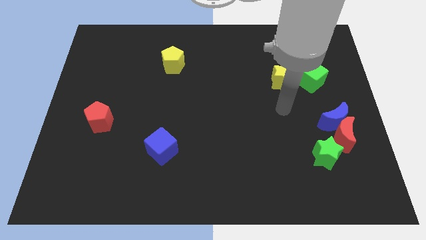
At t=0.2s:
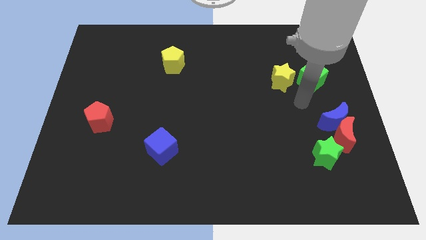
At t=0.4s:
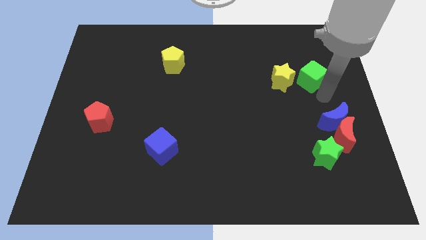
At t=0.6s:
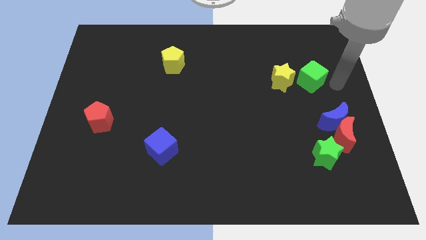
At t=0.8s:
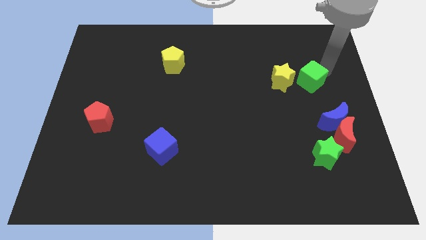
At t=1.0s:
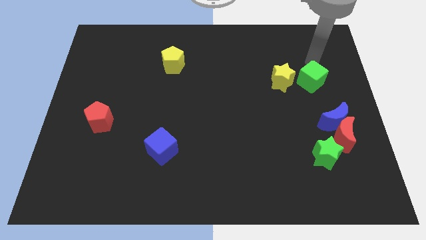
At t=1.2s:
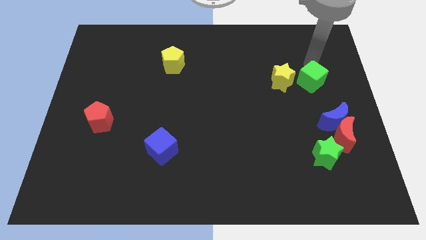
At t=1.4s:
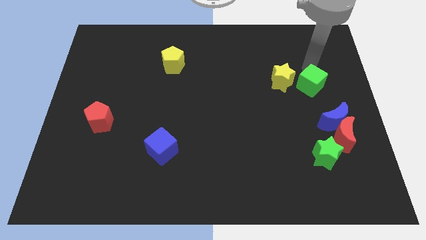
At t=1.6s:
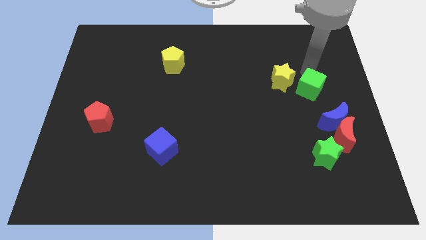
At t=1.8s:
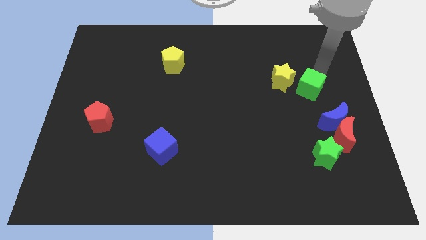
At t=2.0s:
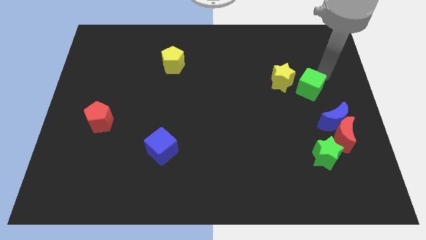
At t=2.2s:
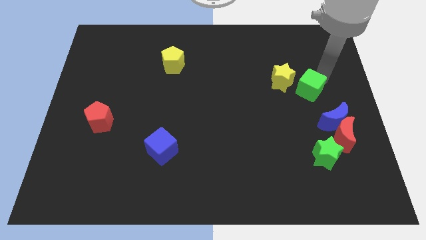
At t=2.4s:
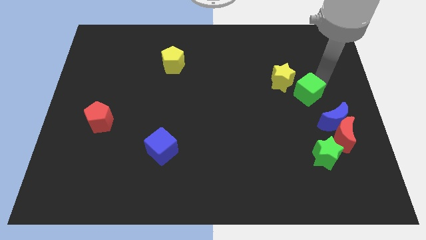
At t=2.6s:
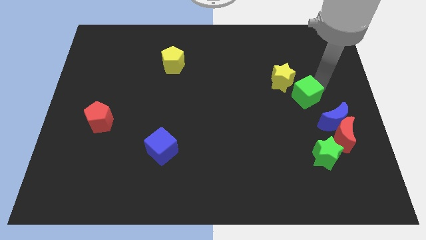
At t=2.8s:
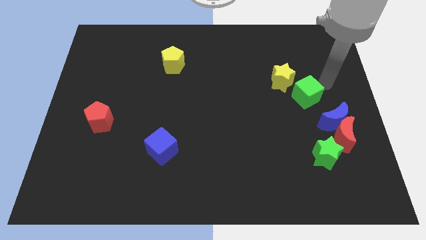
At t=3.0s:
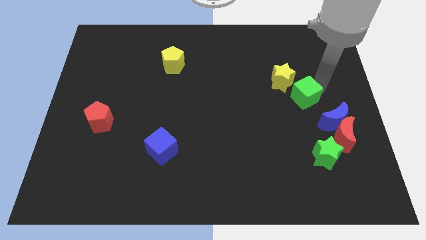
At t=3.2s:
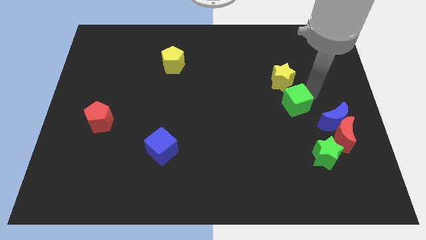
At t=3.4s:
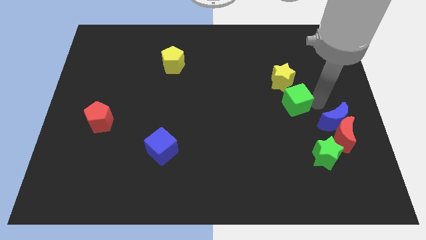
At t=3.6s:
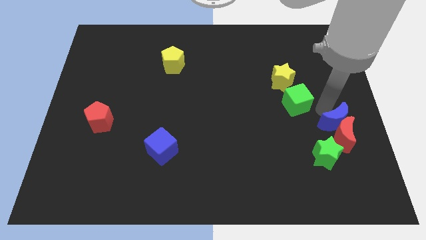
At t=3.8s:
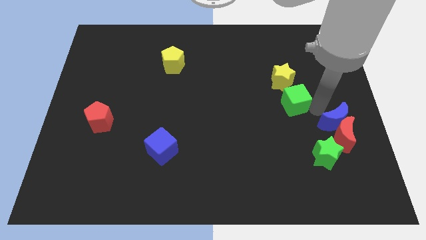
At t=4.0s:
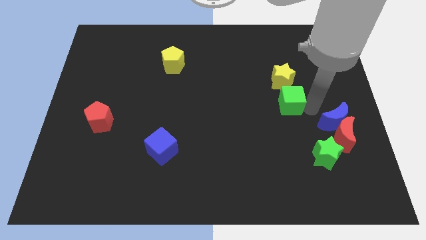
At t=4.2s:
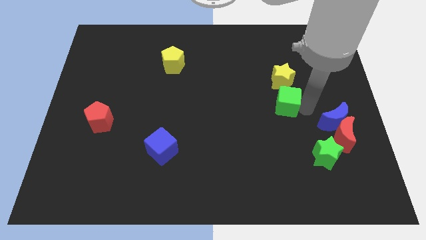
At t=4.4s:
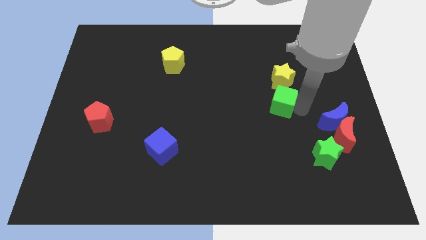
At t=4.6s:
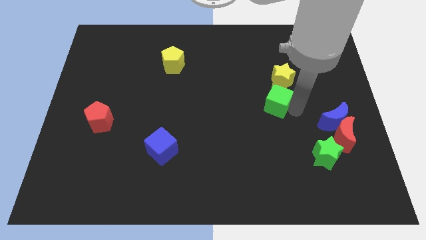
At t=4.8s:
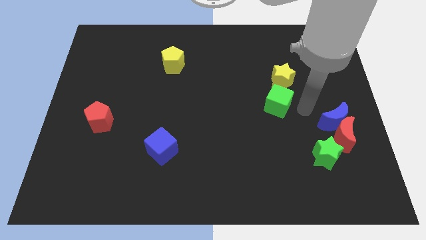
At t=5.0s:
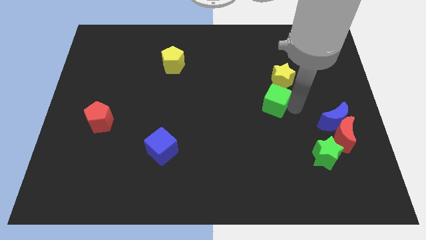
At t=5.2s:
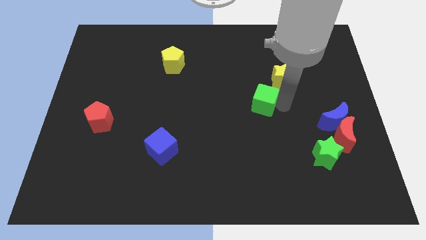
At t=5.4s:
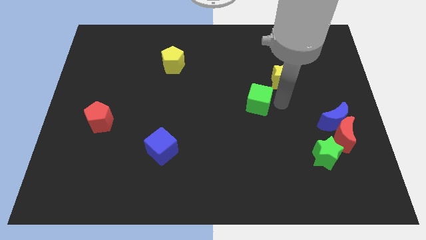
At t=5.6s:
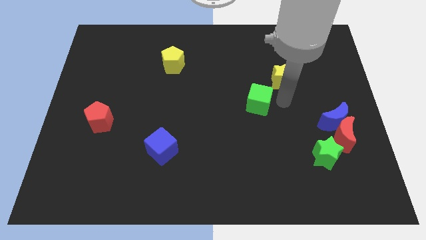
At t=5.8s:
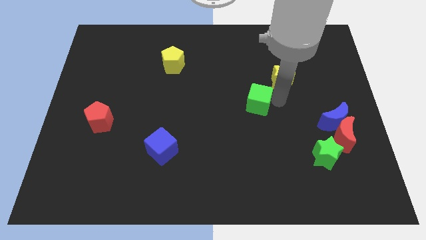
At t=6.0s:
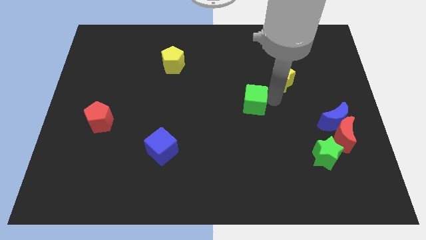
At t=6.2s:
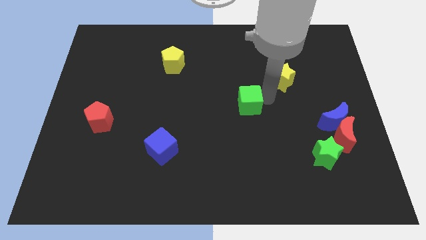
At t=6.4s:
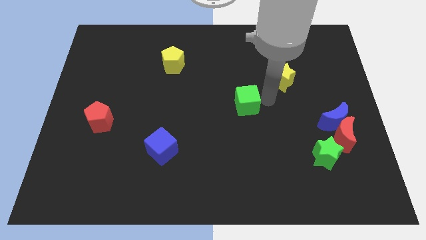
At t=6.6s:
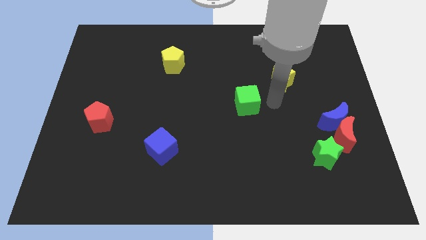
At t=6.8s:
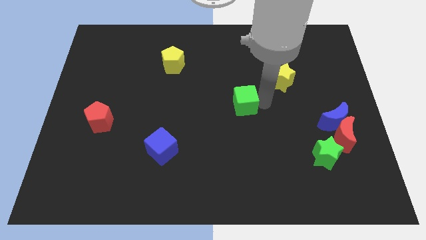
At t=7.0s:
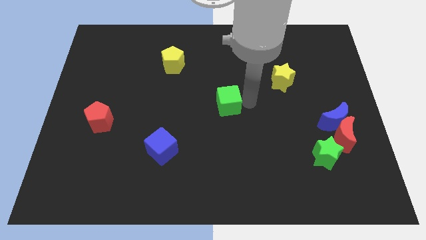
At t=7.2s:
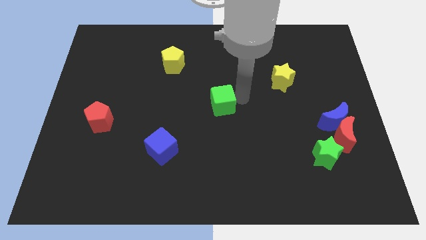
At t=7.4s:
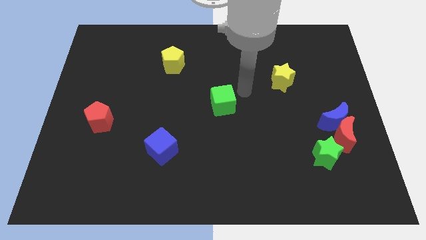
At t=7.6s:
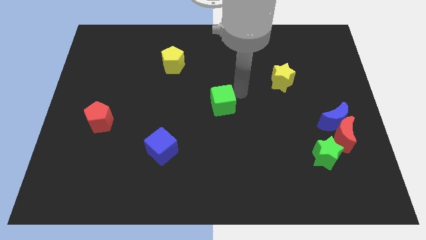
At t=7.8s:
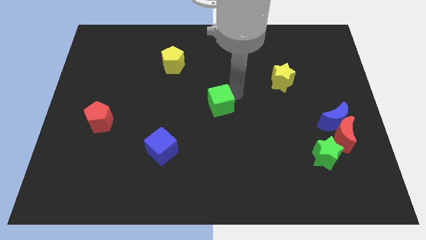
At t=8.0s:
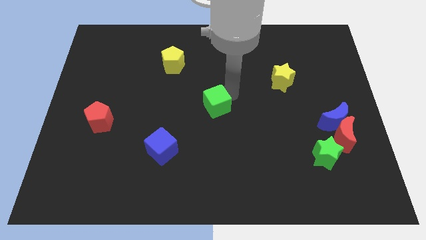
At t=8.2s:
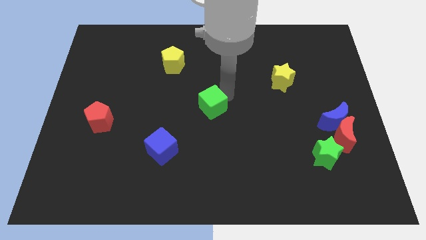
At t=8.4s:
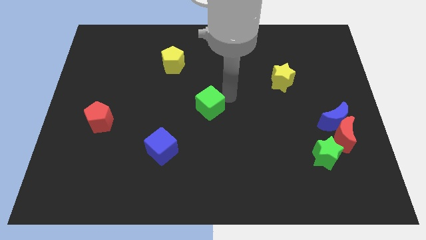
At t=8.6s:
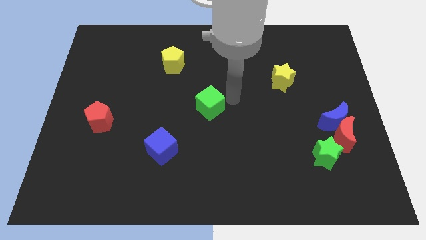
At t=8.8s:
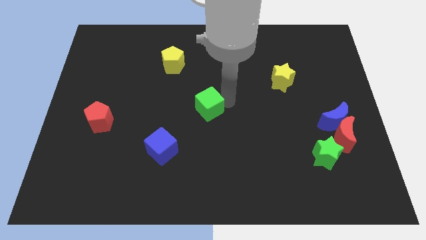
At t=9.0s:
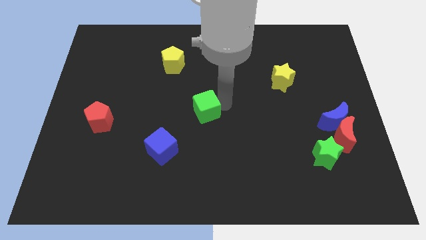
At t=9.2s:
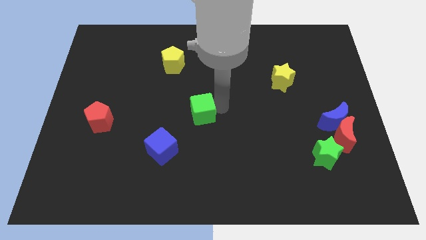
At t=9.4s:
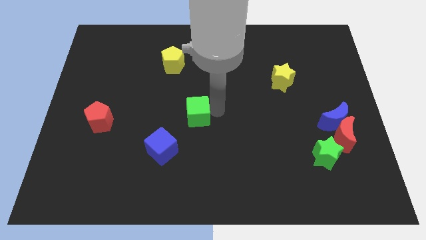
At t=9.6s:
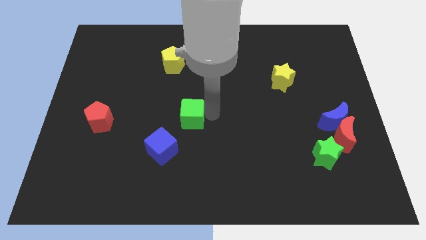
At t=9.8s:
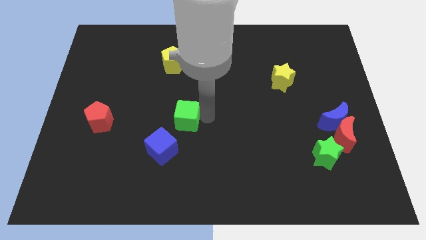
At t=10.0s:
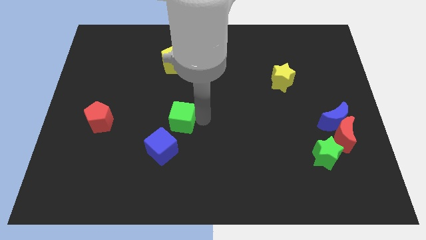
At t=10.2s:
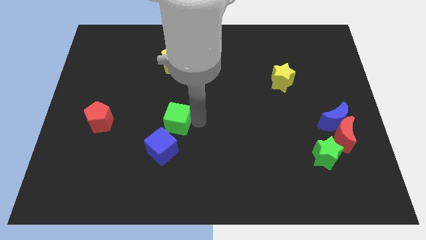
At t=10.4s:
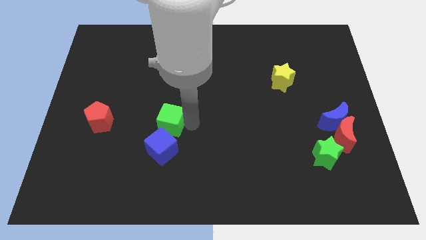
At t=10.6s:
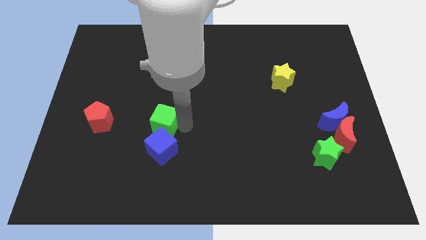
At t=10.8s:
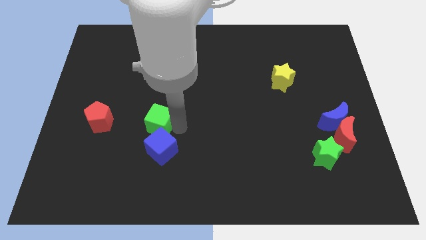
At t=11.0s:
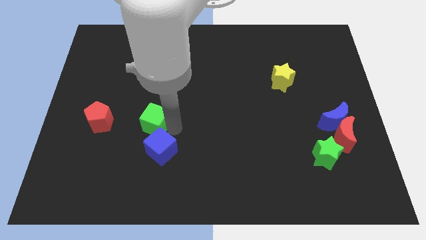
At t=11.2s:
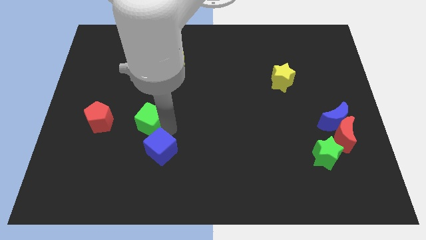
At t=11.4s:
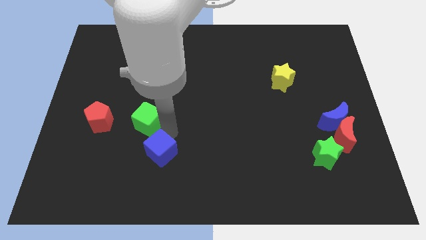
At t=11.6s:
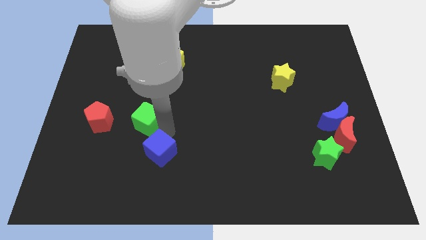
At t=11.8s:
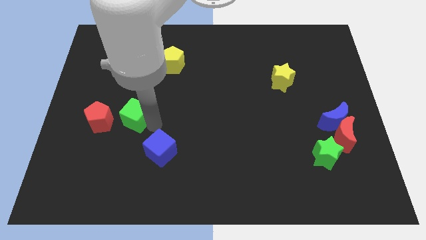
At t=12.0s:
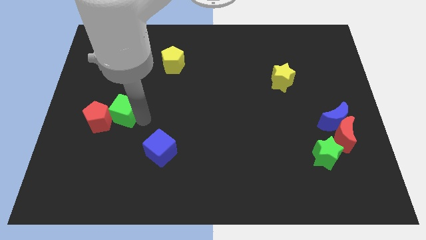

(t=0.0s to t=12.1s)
push the green cube close to the red pentagon
